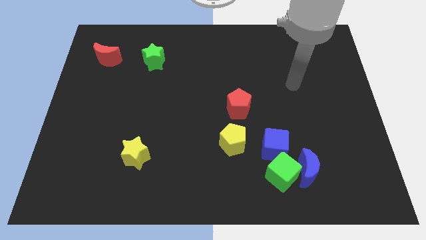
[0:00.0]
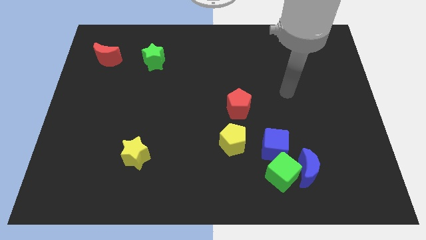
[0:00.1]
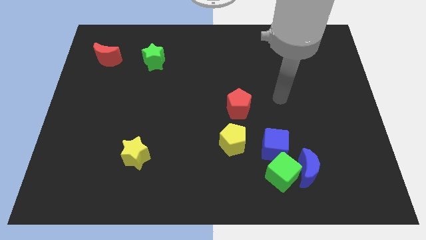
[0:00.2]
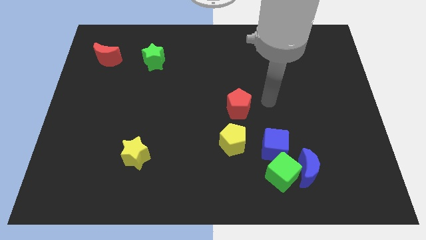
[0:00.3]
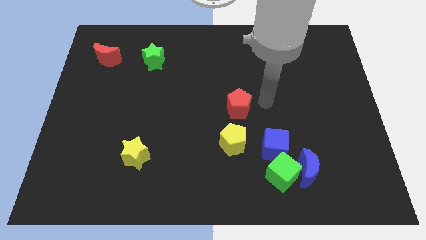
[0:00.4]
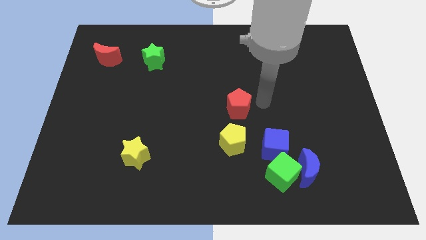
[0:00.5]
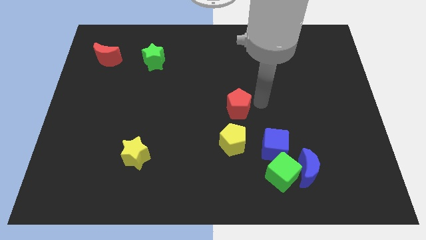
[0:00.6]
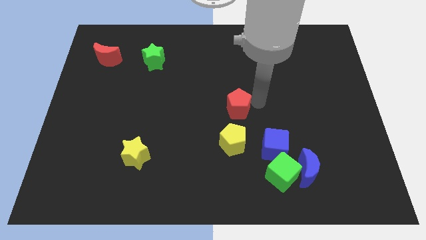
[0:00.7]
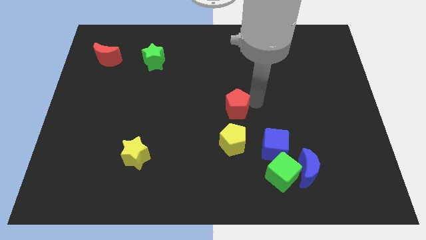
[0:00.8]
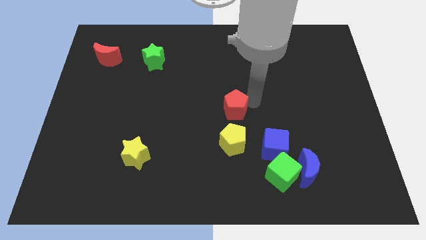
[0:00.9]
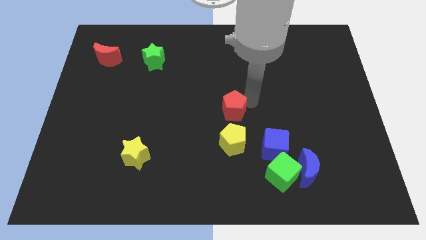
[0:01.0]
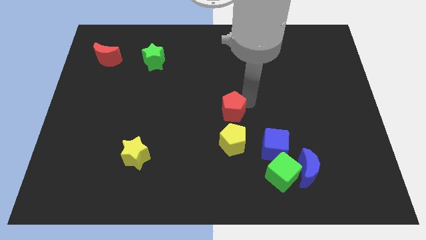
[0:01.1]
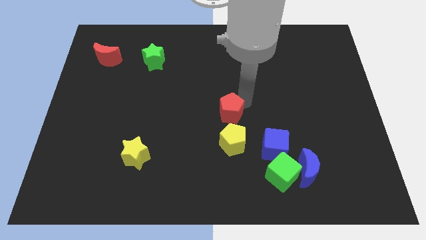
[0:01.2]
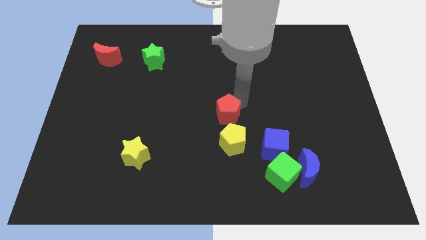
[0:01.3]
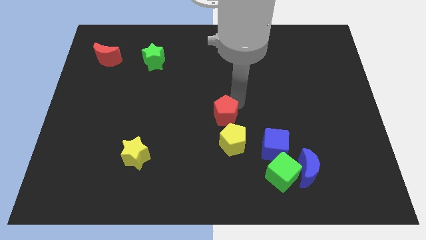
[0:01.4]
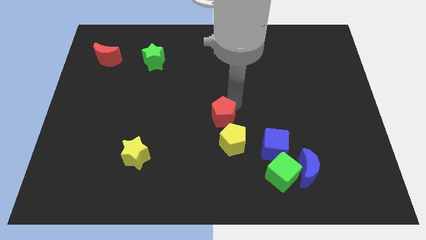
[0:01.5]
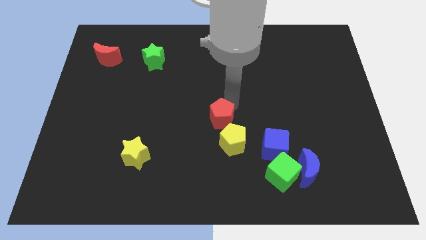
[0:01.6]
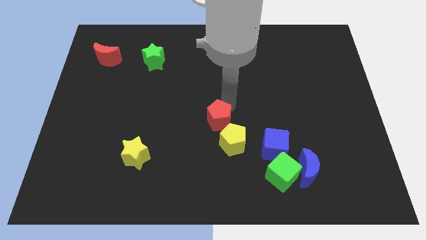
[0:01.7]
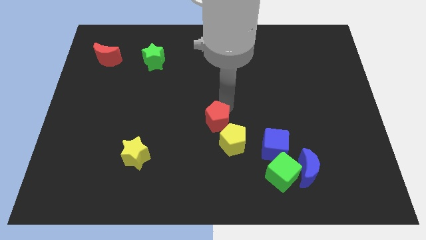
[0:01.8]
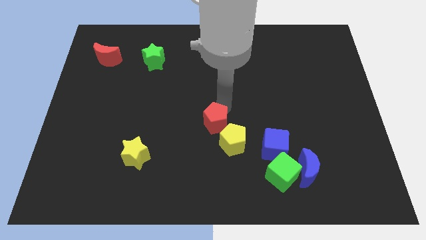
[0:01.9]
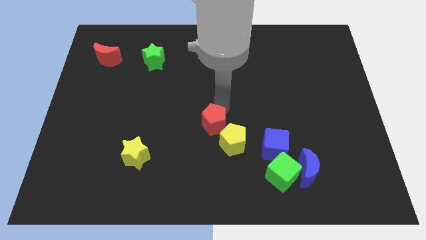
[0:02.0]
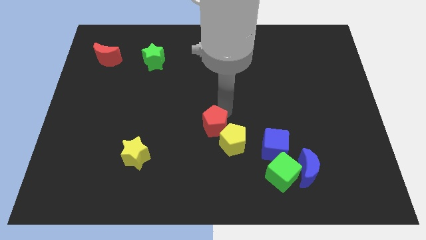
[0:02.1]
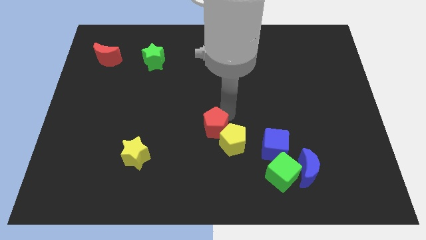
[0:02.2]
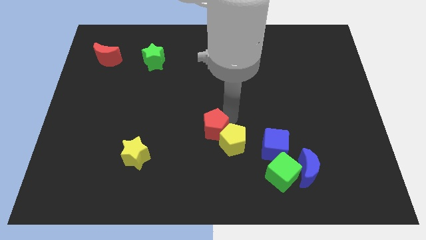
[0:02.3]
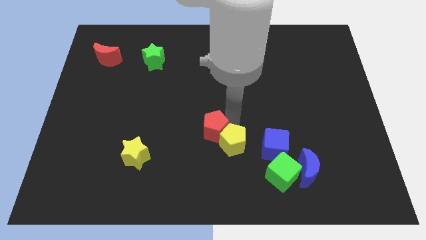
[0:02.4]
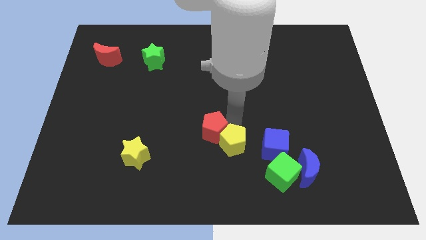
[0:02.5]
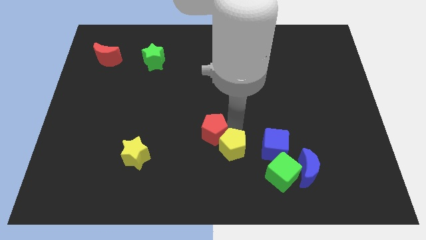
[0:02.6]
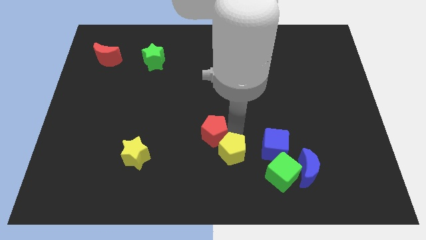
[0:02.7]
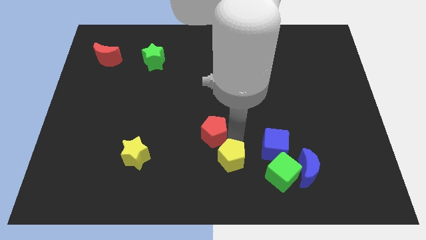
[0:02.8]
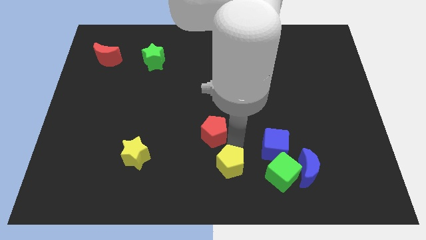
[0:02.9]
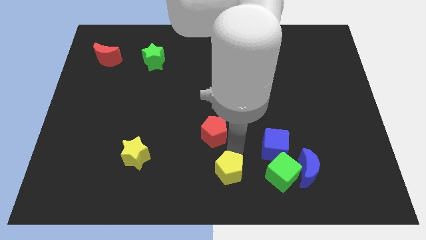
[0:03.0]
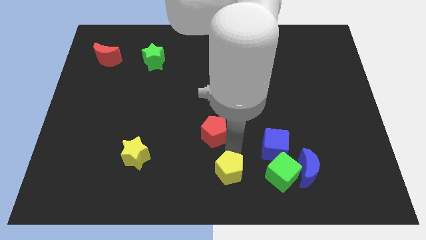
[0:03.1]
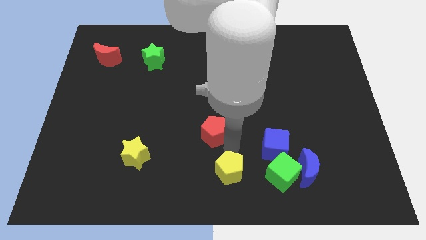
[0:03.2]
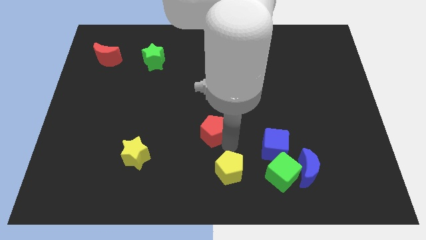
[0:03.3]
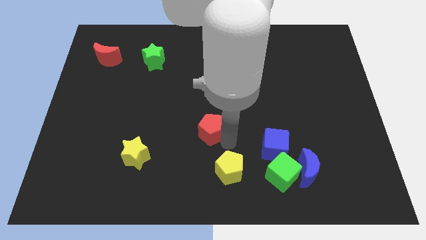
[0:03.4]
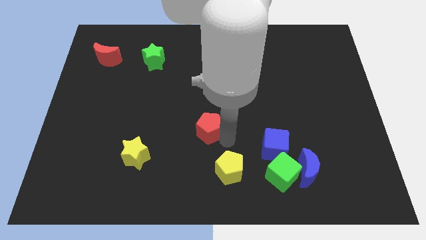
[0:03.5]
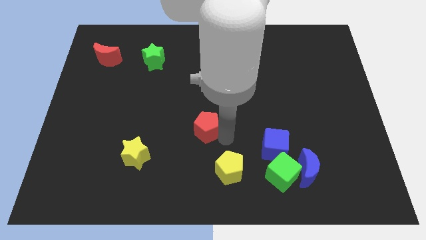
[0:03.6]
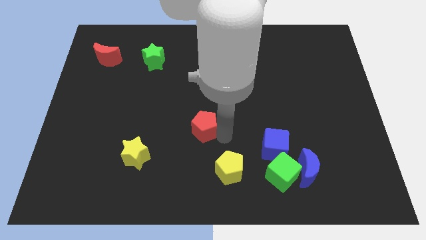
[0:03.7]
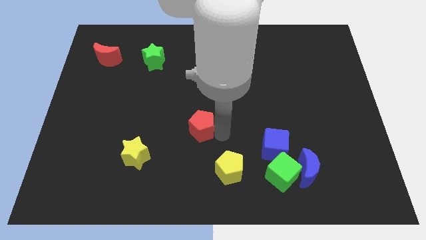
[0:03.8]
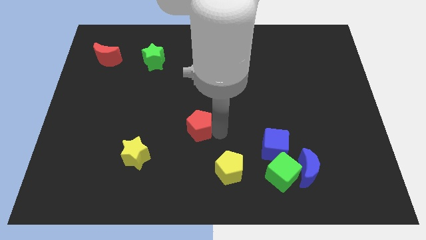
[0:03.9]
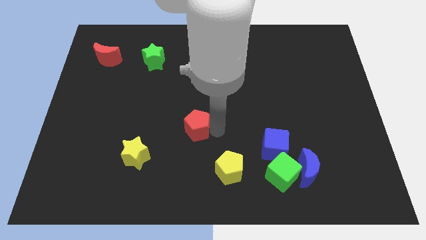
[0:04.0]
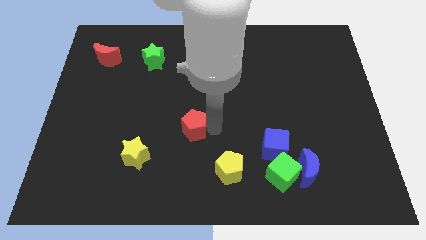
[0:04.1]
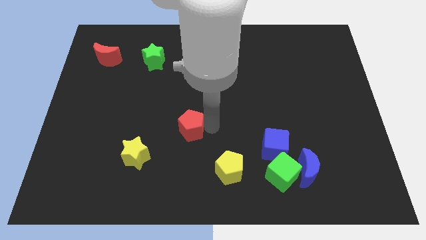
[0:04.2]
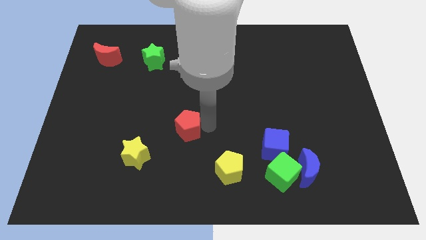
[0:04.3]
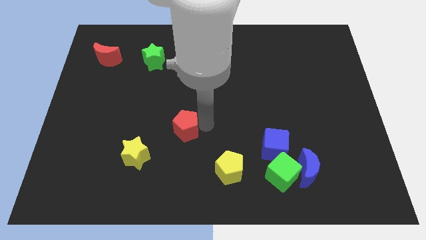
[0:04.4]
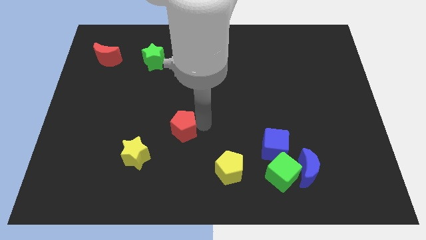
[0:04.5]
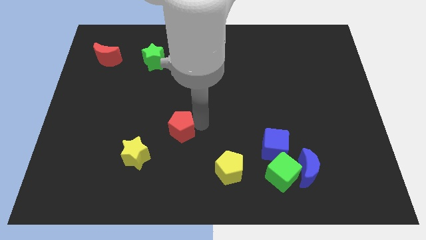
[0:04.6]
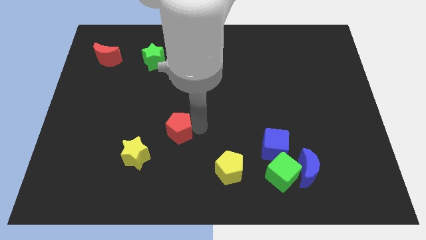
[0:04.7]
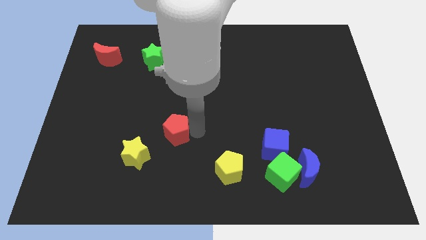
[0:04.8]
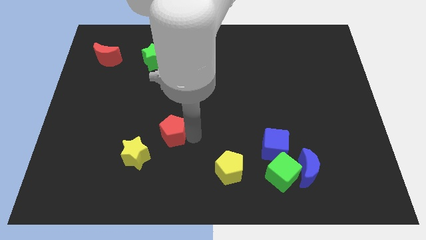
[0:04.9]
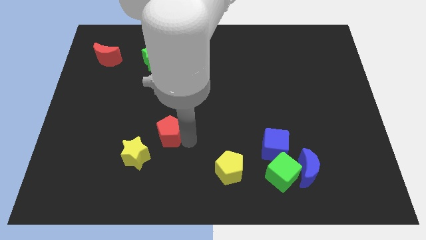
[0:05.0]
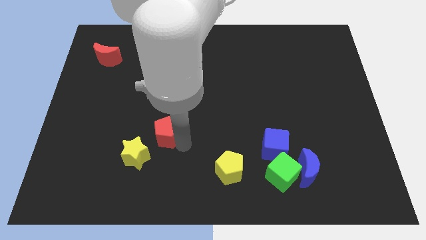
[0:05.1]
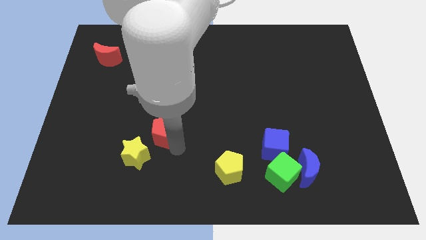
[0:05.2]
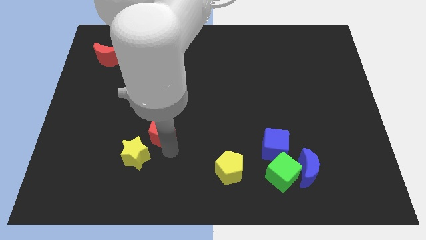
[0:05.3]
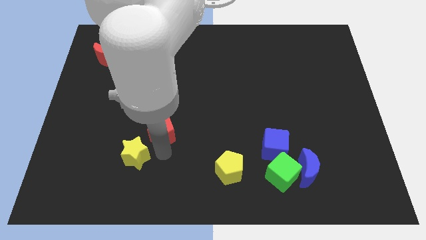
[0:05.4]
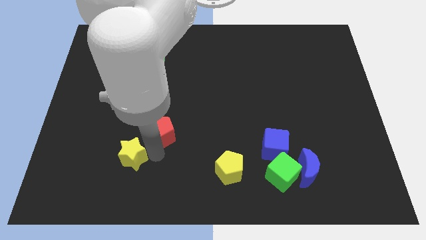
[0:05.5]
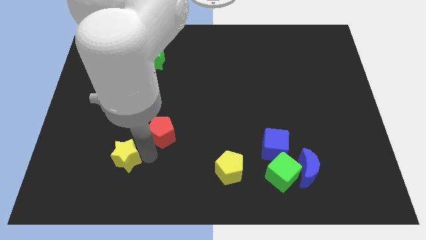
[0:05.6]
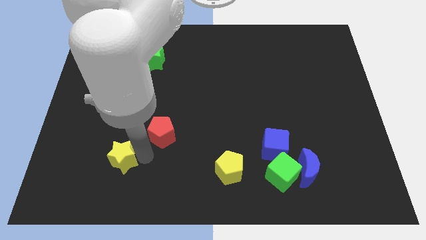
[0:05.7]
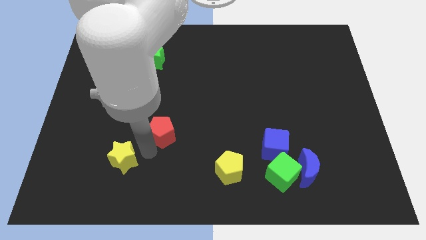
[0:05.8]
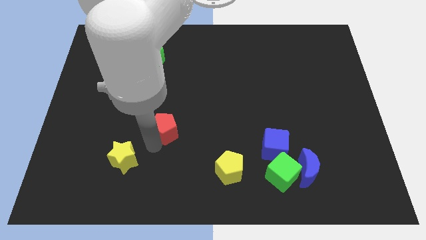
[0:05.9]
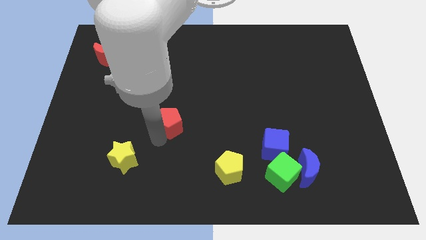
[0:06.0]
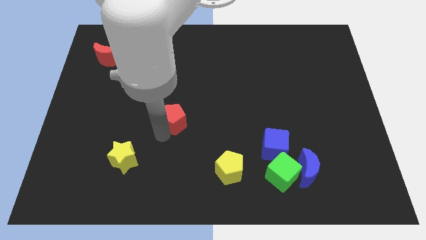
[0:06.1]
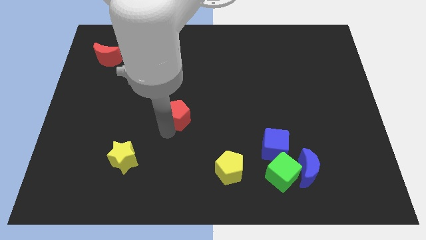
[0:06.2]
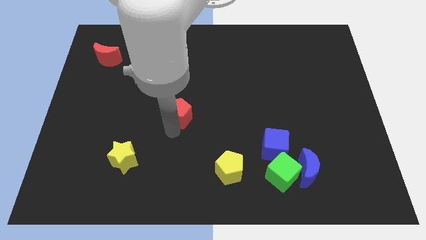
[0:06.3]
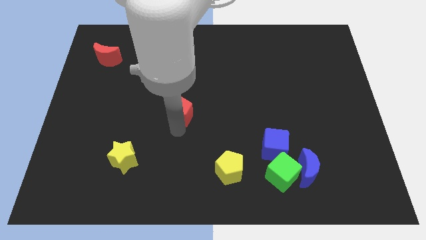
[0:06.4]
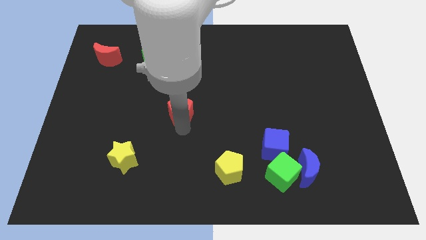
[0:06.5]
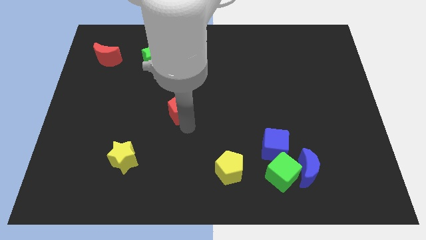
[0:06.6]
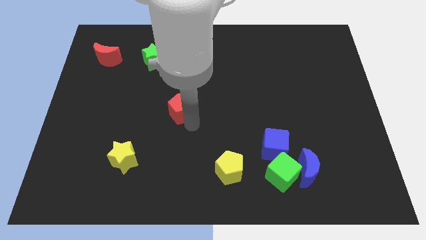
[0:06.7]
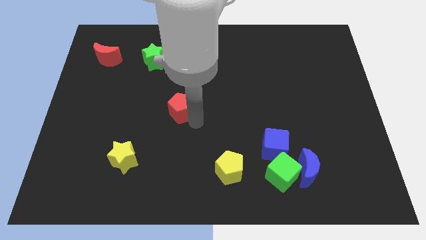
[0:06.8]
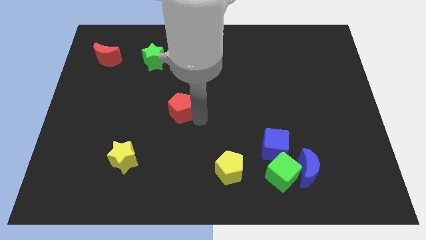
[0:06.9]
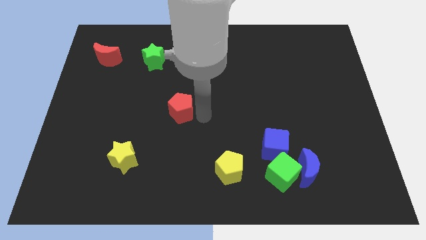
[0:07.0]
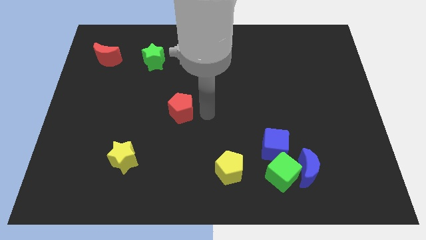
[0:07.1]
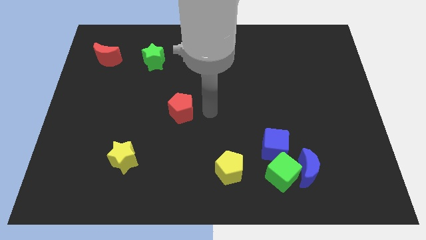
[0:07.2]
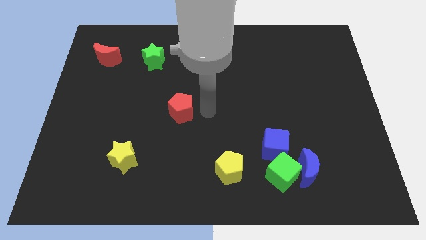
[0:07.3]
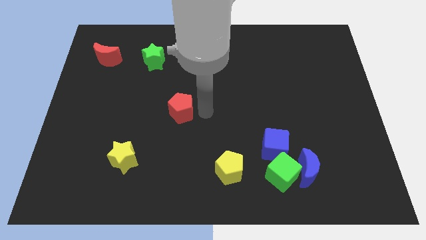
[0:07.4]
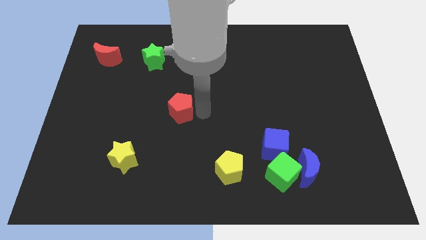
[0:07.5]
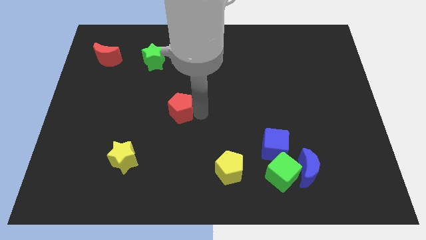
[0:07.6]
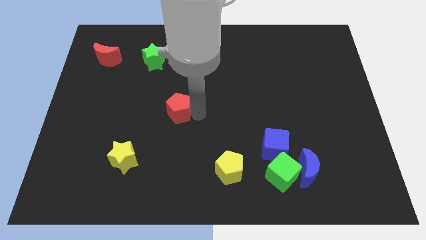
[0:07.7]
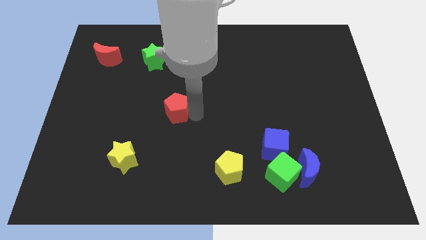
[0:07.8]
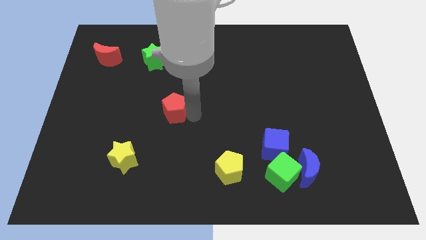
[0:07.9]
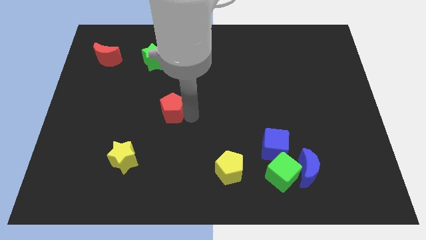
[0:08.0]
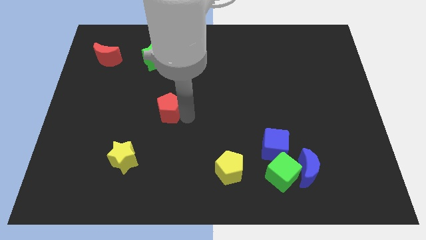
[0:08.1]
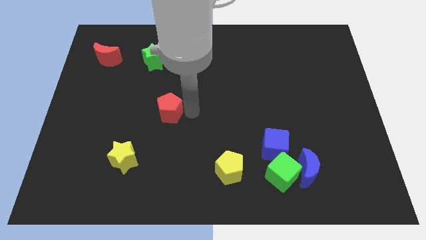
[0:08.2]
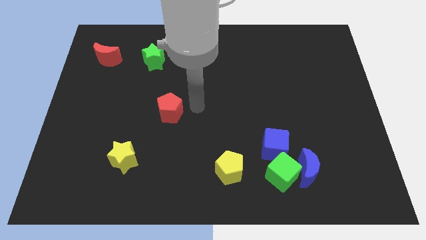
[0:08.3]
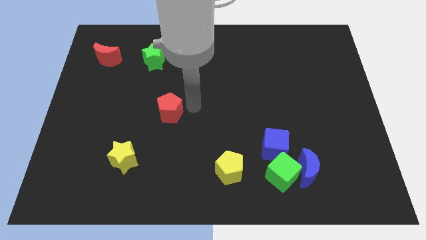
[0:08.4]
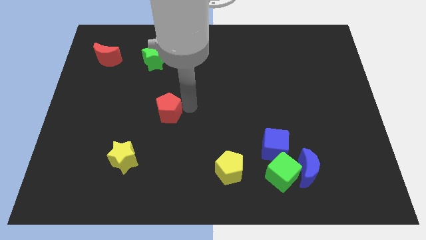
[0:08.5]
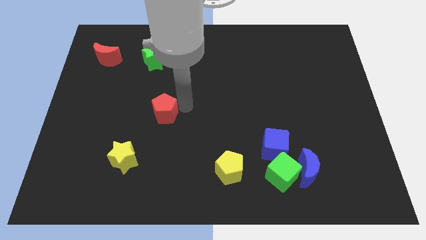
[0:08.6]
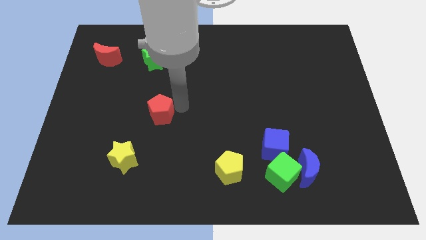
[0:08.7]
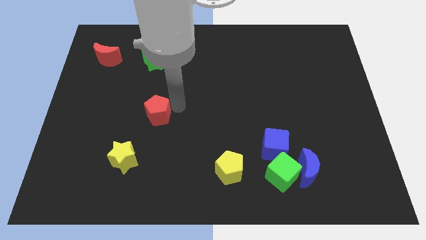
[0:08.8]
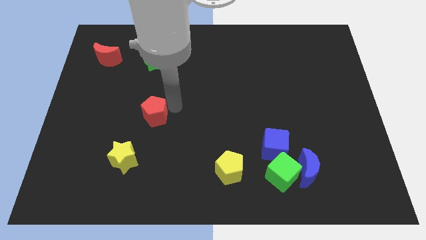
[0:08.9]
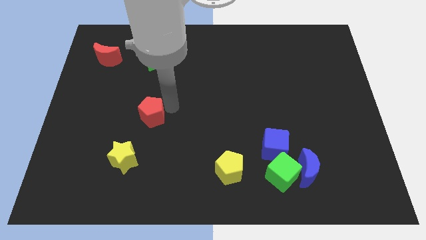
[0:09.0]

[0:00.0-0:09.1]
put the red pentagon to the top of the yellow star
